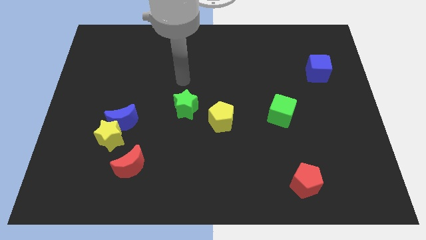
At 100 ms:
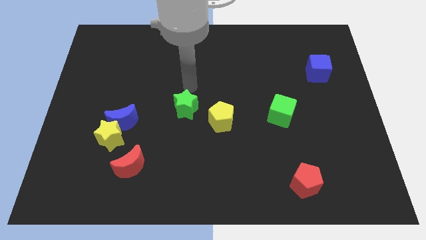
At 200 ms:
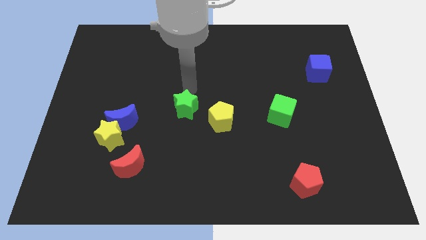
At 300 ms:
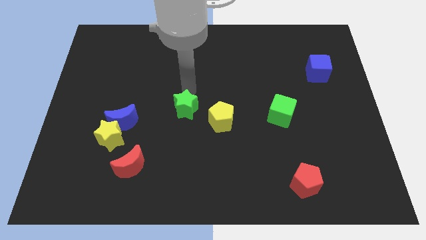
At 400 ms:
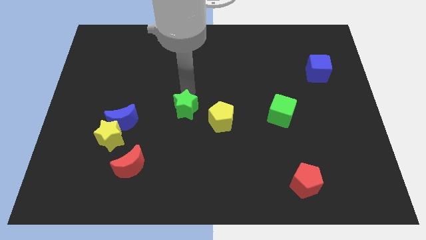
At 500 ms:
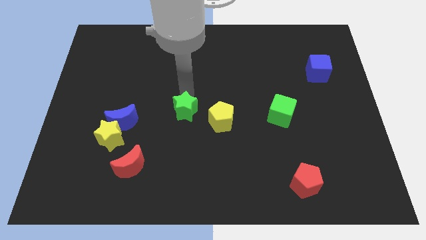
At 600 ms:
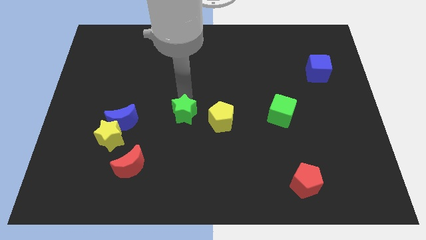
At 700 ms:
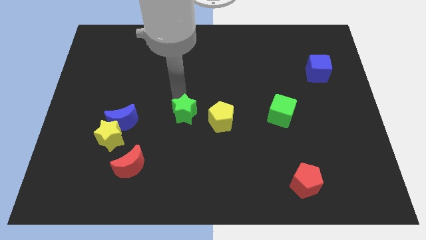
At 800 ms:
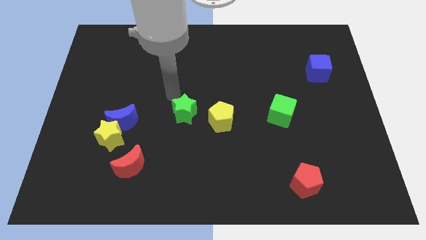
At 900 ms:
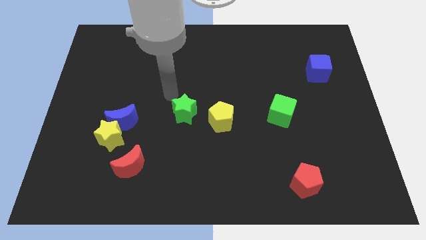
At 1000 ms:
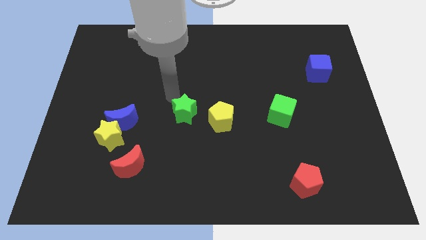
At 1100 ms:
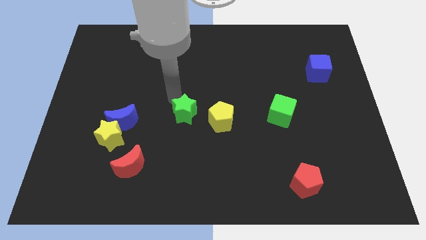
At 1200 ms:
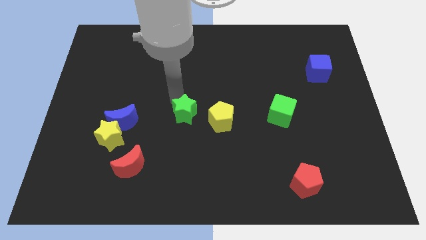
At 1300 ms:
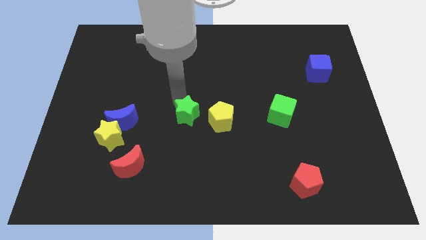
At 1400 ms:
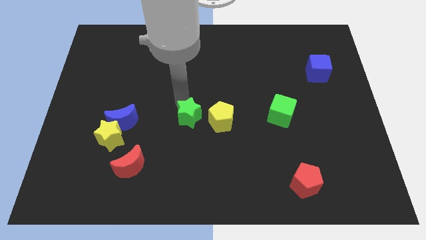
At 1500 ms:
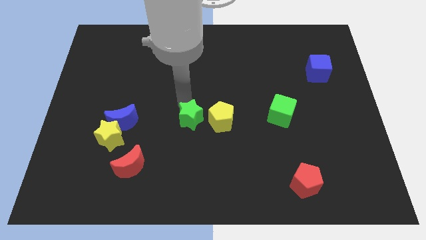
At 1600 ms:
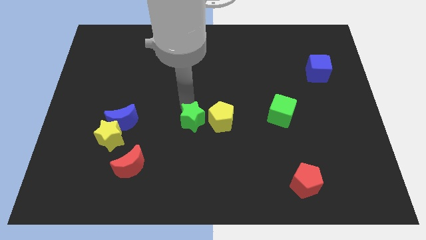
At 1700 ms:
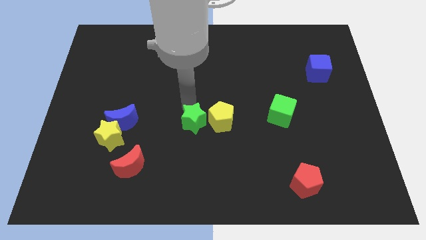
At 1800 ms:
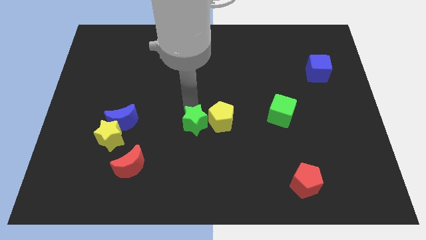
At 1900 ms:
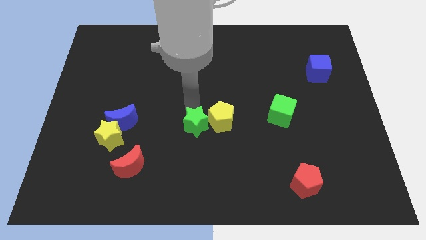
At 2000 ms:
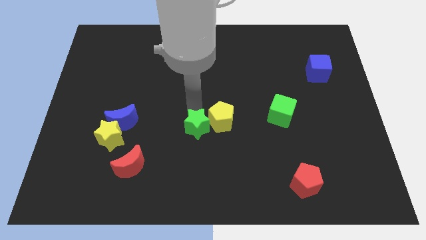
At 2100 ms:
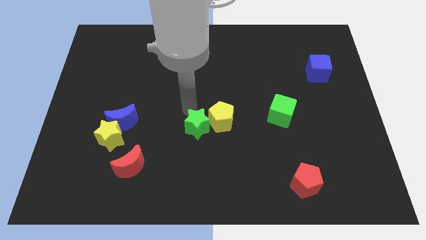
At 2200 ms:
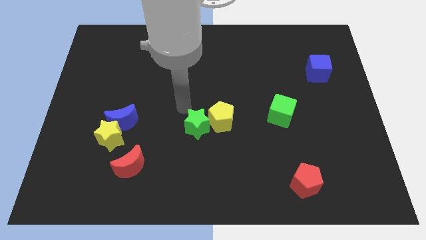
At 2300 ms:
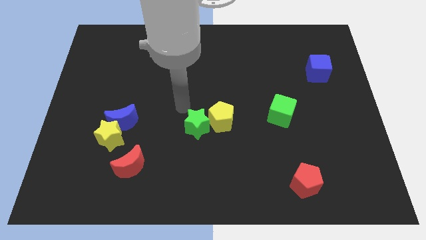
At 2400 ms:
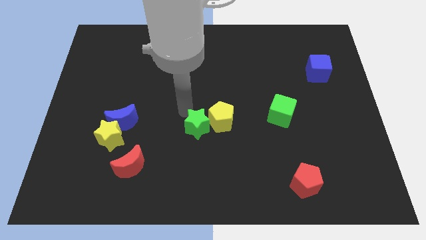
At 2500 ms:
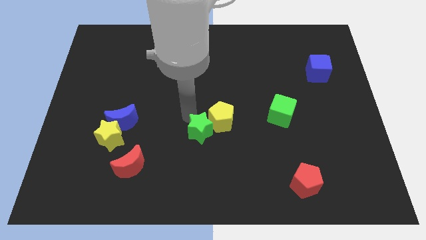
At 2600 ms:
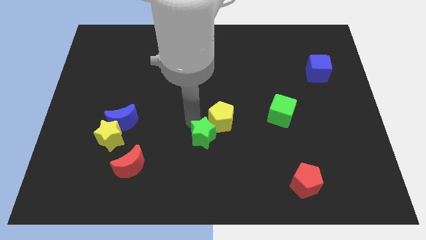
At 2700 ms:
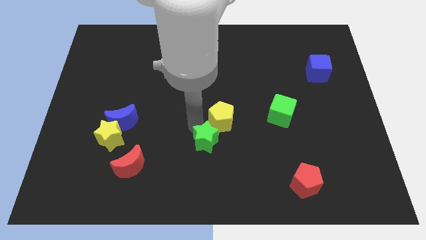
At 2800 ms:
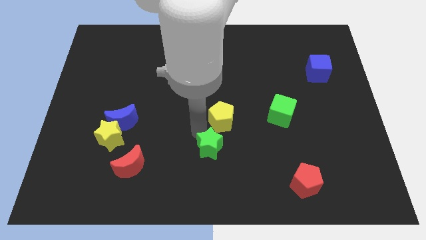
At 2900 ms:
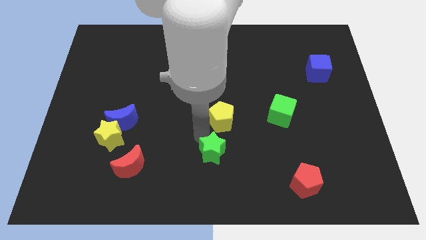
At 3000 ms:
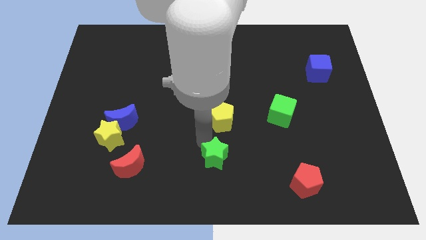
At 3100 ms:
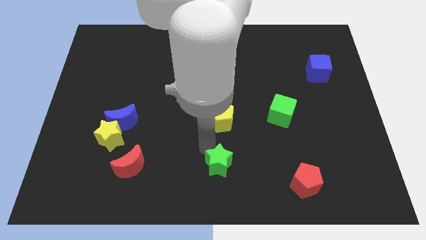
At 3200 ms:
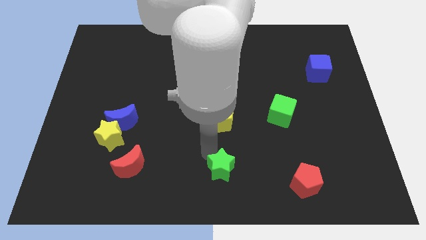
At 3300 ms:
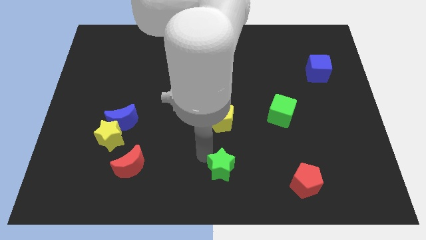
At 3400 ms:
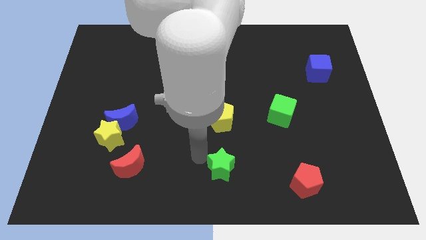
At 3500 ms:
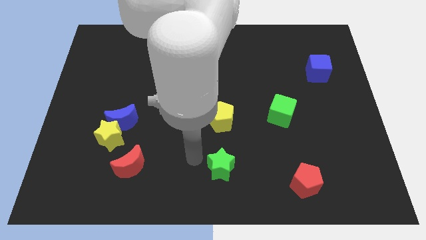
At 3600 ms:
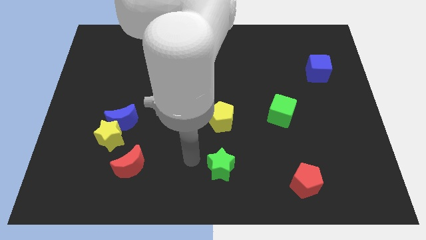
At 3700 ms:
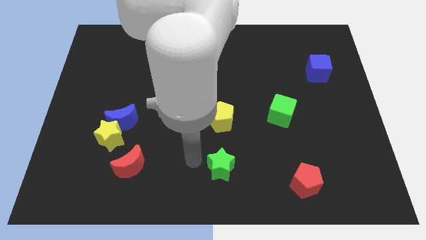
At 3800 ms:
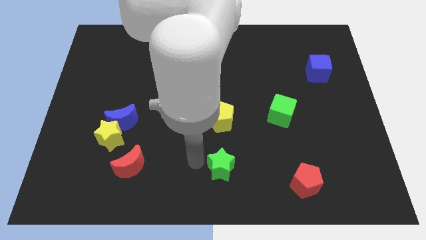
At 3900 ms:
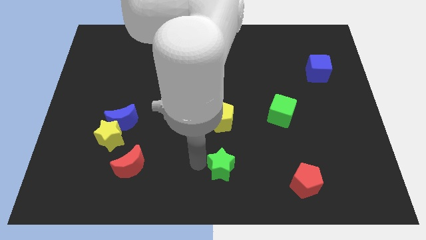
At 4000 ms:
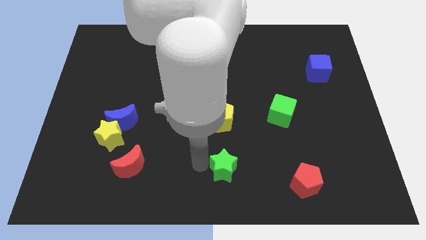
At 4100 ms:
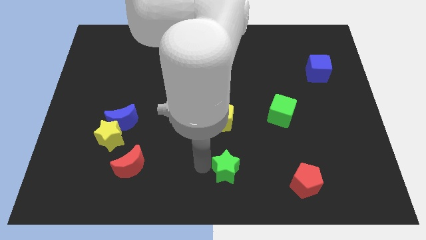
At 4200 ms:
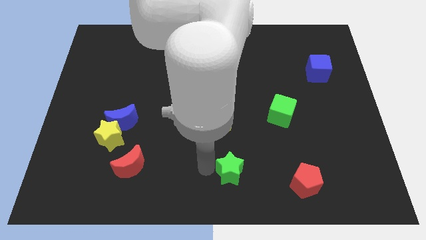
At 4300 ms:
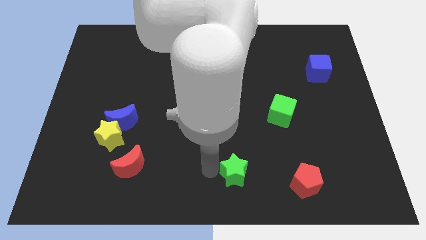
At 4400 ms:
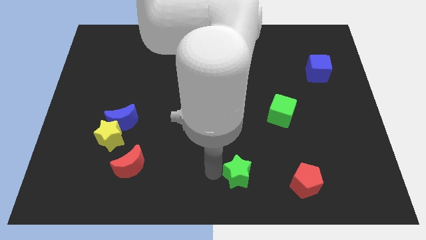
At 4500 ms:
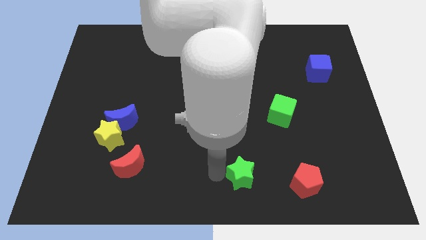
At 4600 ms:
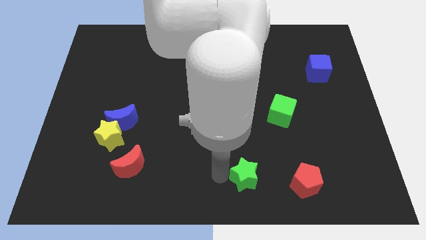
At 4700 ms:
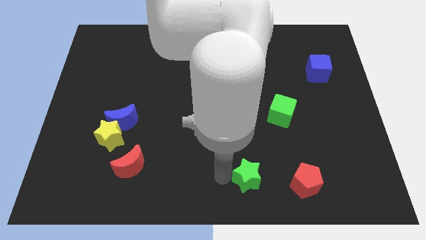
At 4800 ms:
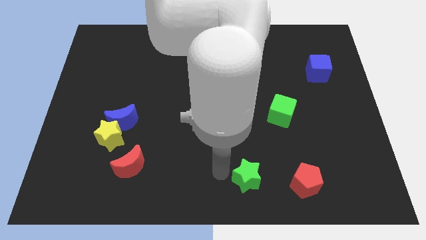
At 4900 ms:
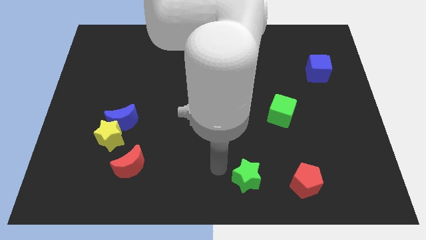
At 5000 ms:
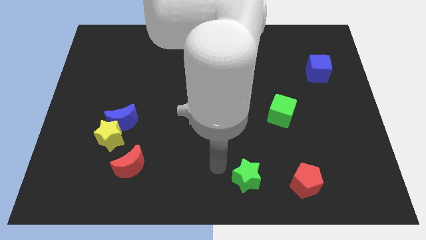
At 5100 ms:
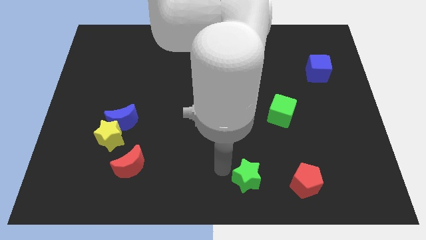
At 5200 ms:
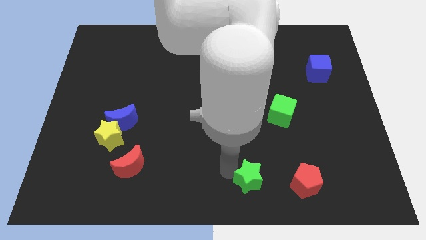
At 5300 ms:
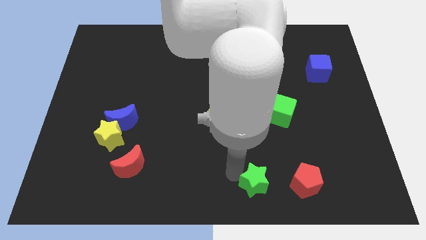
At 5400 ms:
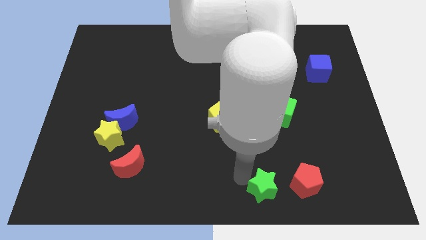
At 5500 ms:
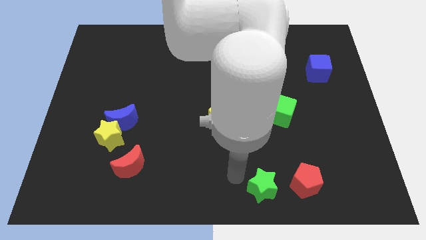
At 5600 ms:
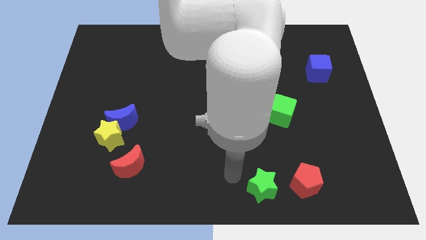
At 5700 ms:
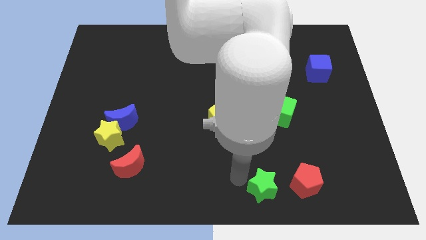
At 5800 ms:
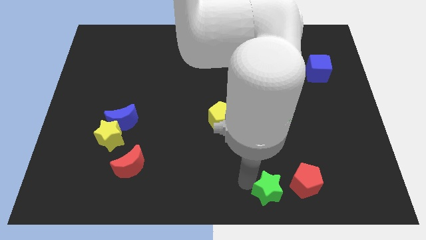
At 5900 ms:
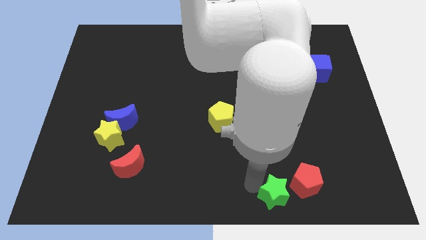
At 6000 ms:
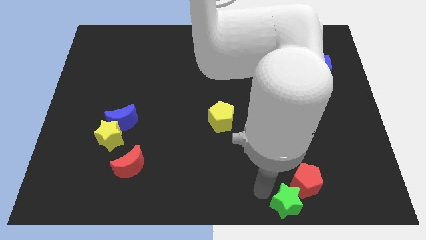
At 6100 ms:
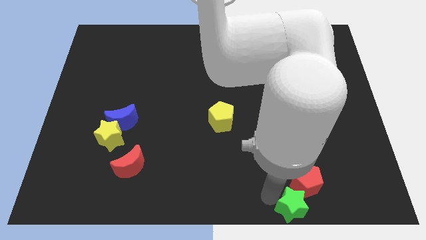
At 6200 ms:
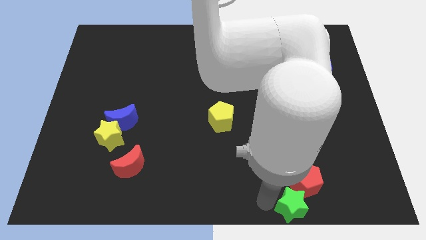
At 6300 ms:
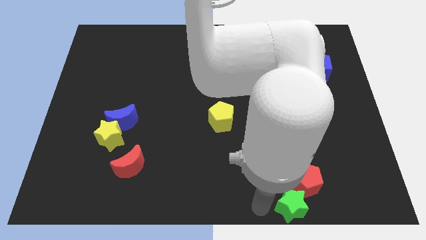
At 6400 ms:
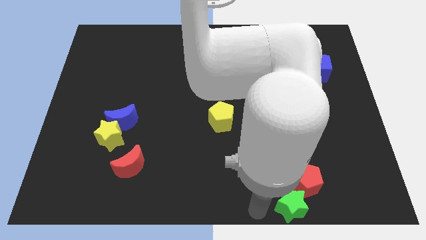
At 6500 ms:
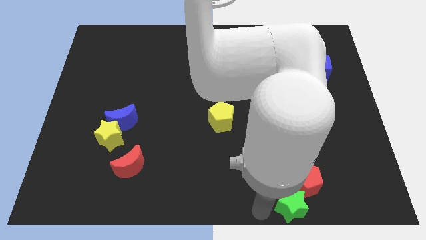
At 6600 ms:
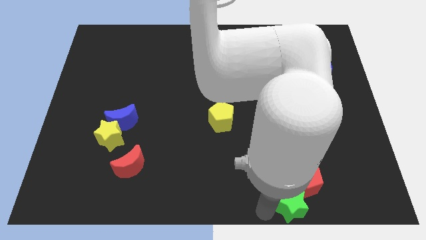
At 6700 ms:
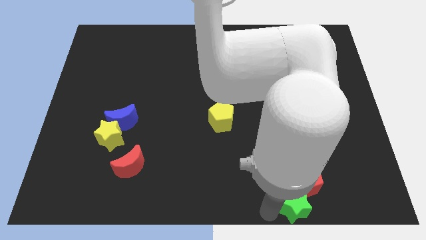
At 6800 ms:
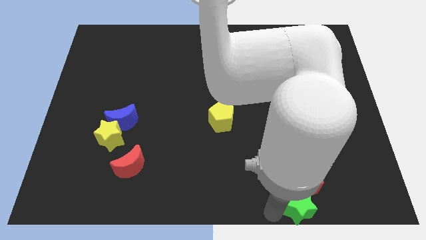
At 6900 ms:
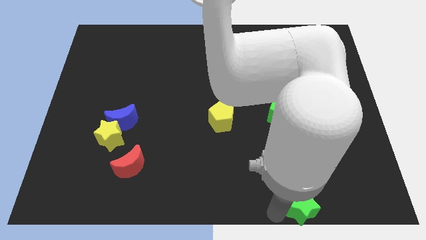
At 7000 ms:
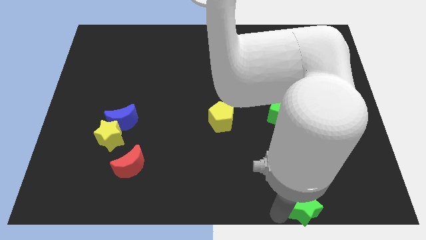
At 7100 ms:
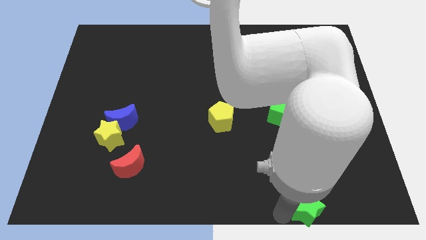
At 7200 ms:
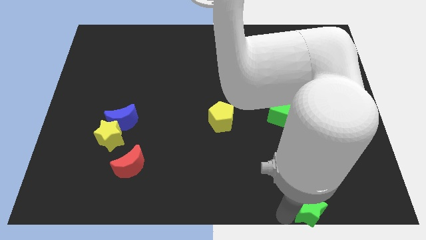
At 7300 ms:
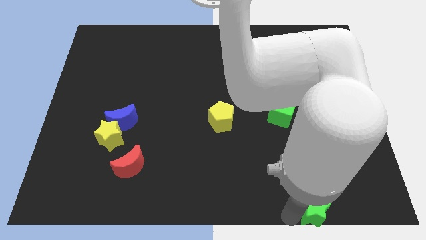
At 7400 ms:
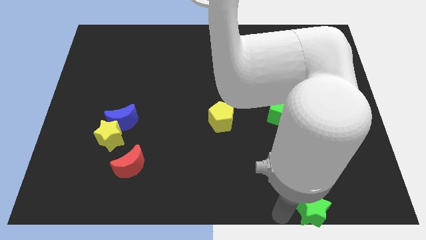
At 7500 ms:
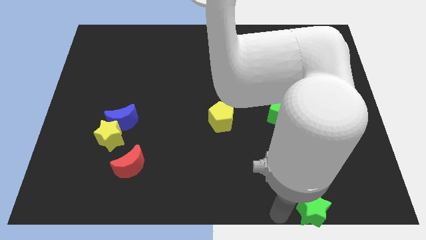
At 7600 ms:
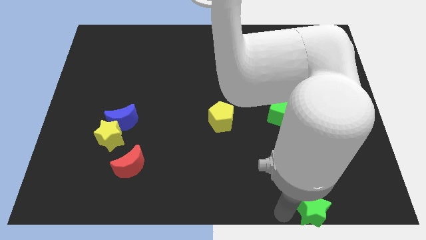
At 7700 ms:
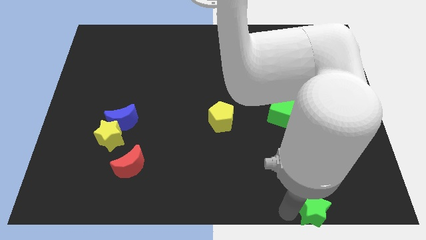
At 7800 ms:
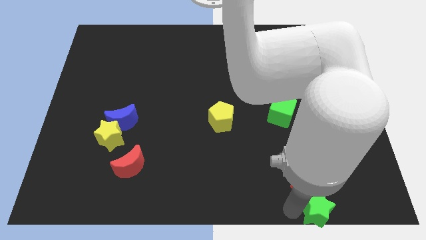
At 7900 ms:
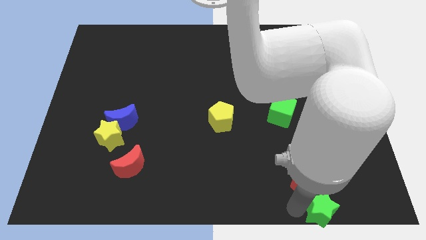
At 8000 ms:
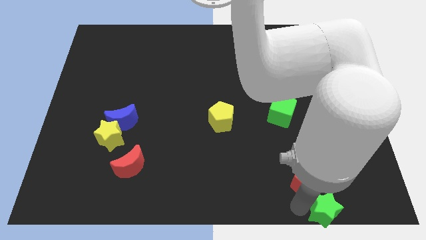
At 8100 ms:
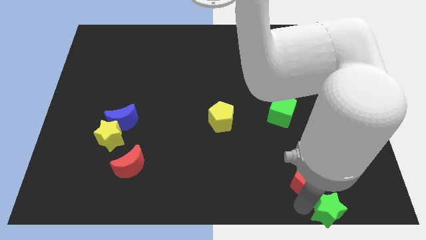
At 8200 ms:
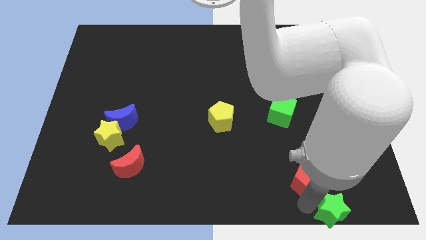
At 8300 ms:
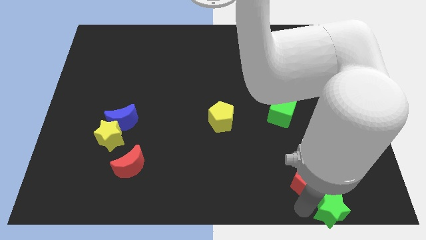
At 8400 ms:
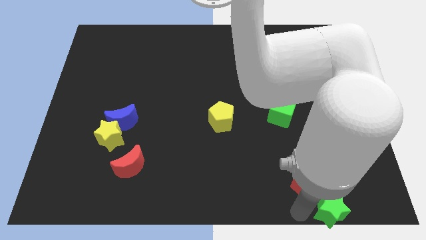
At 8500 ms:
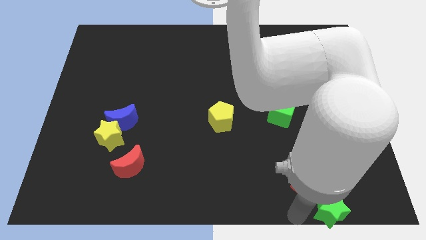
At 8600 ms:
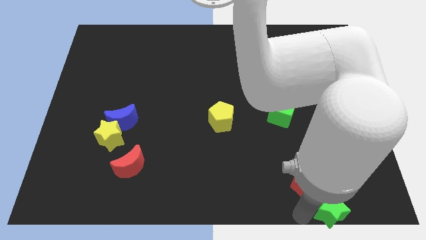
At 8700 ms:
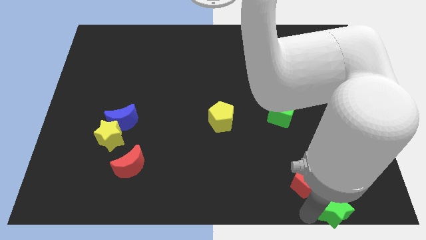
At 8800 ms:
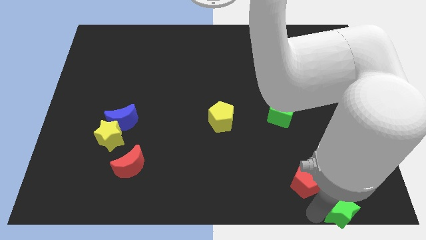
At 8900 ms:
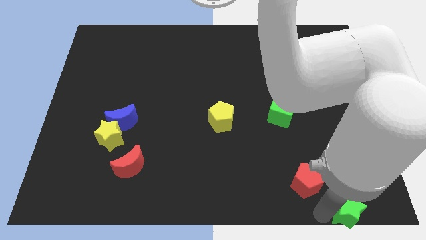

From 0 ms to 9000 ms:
push the green star to the bottom right of the board
